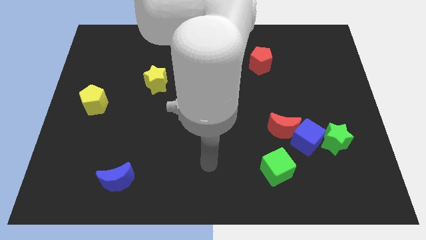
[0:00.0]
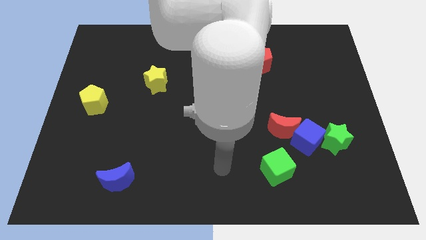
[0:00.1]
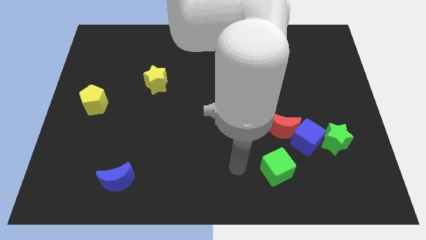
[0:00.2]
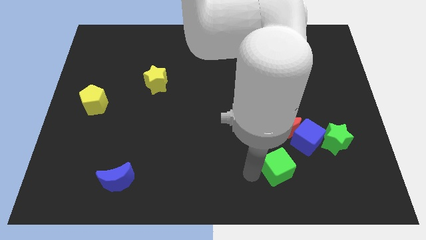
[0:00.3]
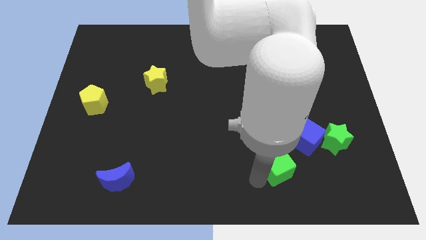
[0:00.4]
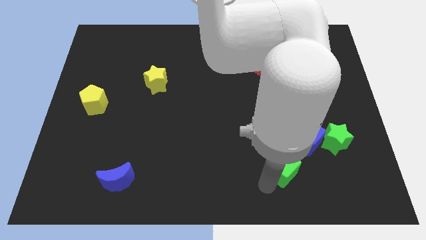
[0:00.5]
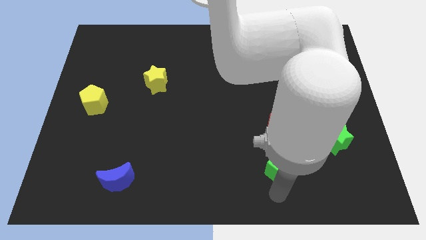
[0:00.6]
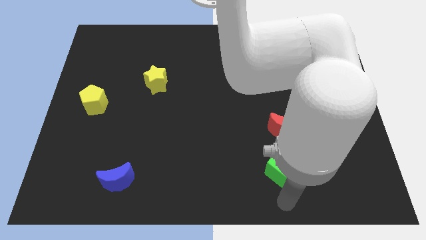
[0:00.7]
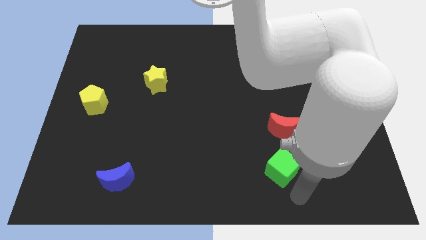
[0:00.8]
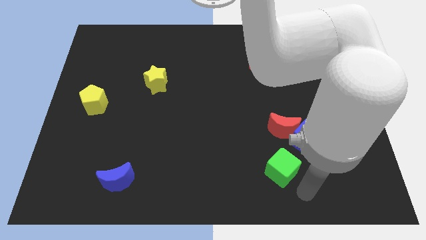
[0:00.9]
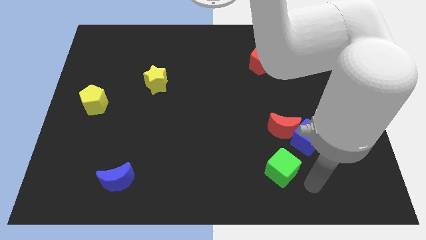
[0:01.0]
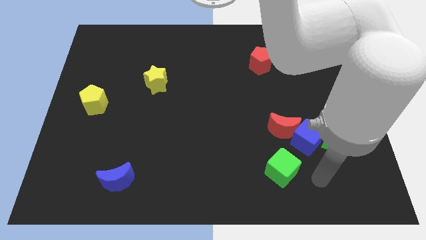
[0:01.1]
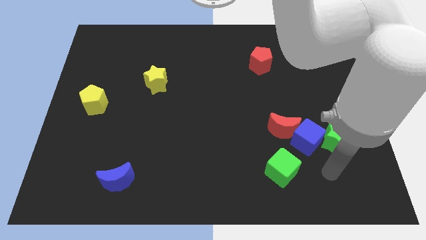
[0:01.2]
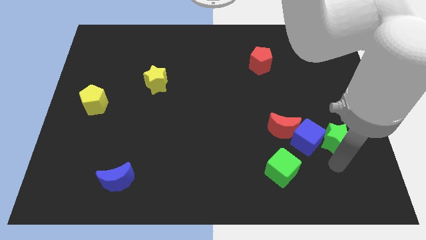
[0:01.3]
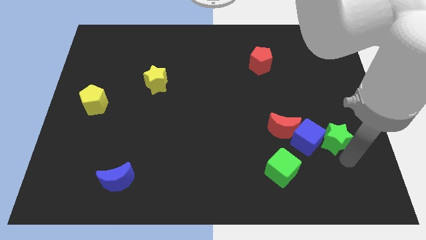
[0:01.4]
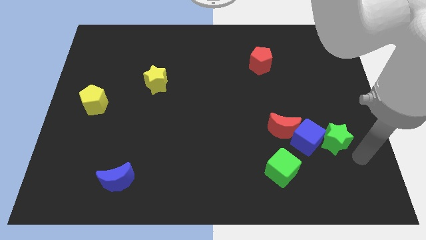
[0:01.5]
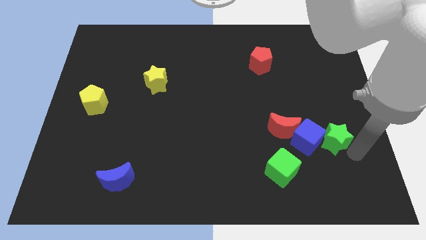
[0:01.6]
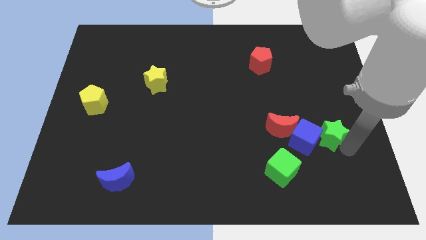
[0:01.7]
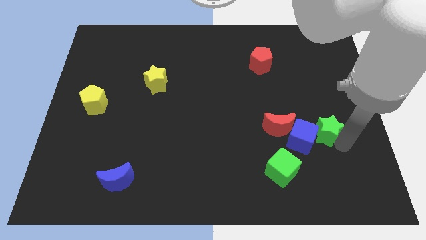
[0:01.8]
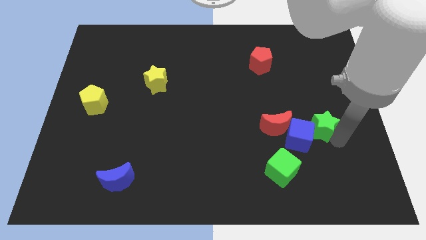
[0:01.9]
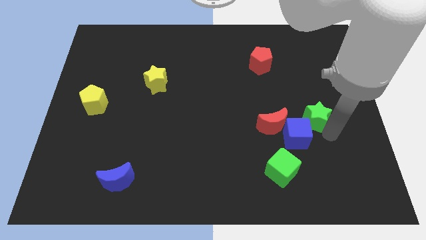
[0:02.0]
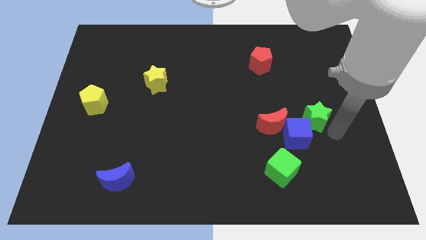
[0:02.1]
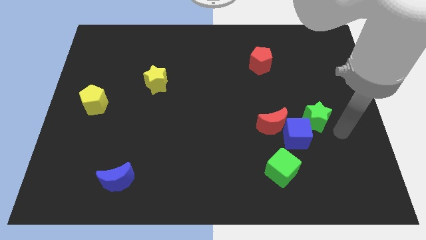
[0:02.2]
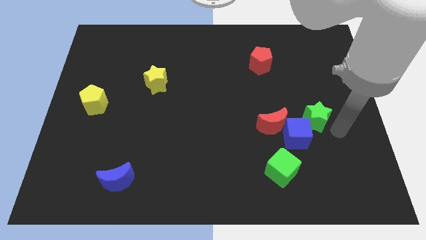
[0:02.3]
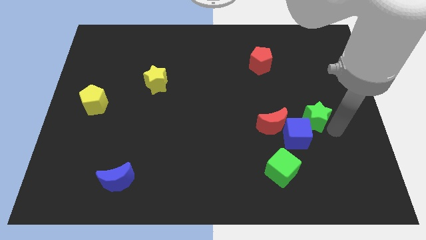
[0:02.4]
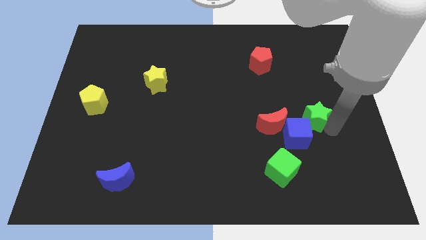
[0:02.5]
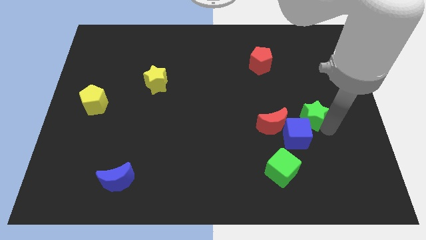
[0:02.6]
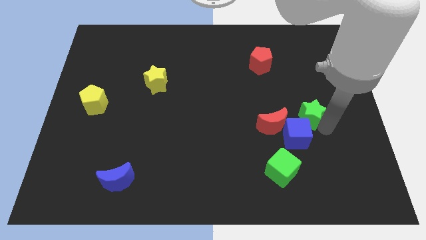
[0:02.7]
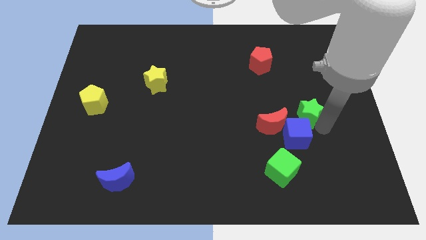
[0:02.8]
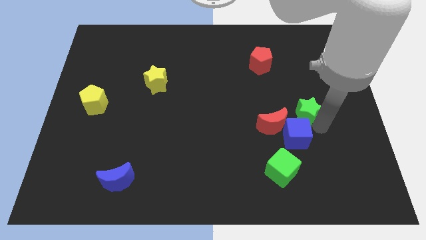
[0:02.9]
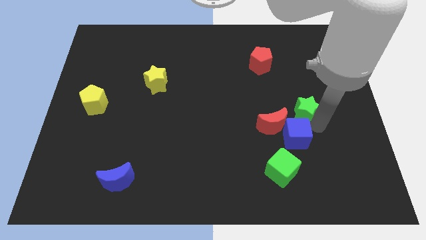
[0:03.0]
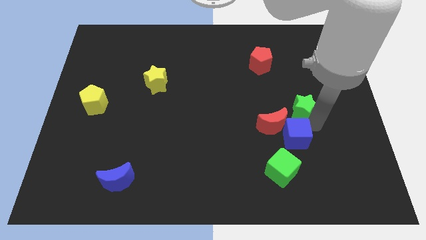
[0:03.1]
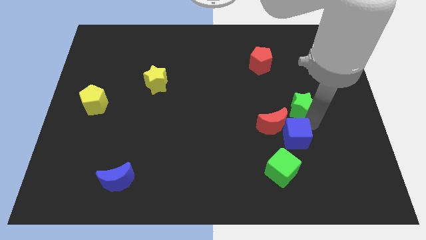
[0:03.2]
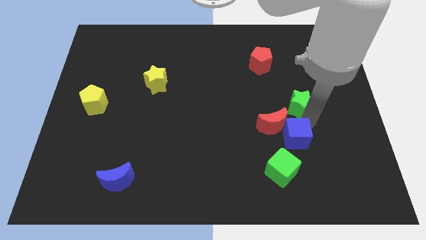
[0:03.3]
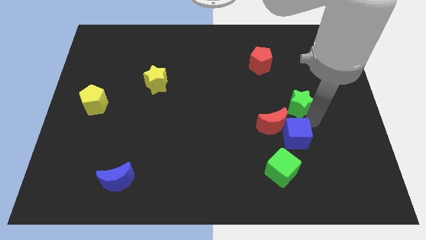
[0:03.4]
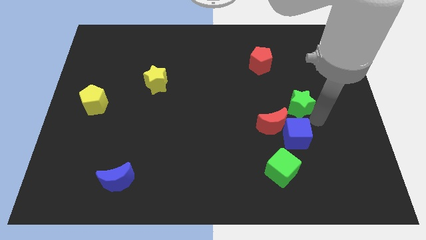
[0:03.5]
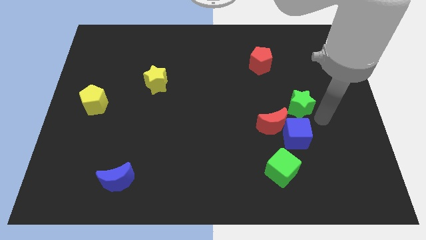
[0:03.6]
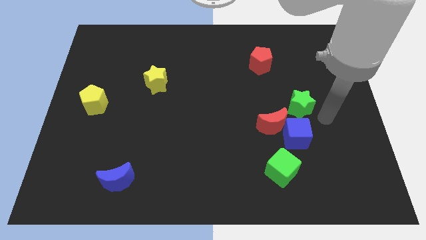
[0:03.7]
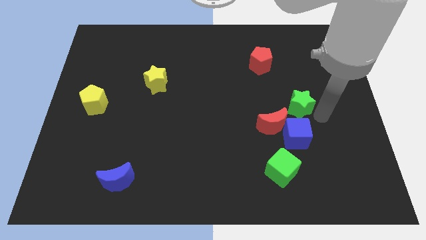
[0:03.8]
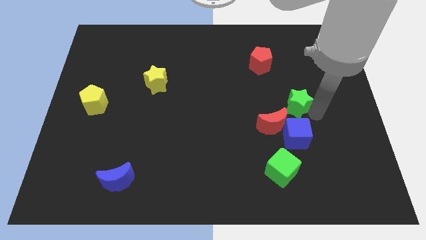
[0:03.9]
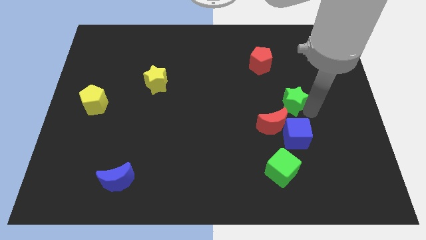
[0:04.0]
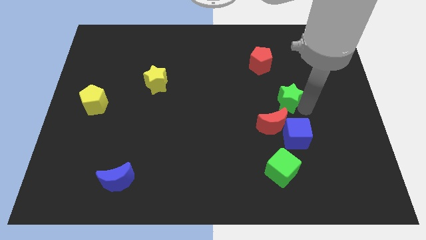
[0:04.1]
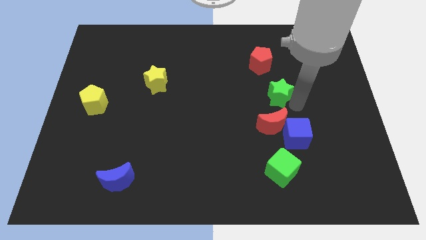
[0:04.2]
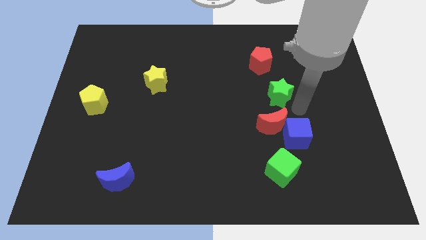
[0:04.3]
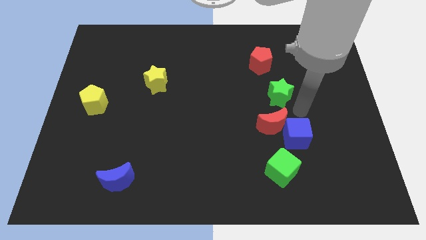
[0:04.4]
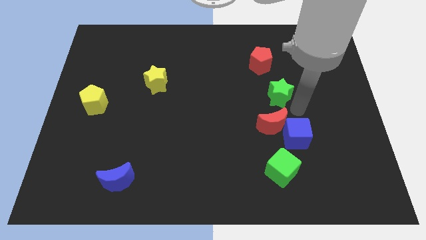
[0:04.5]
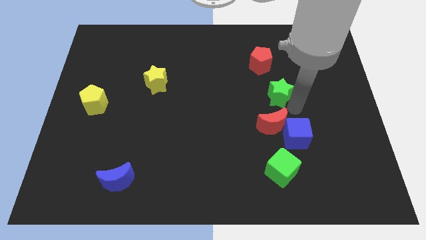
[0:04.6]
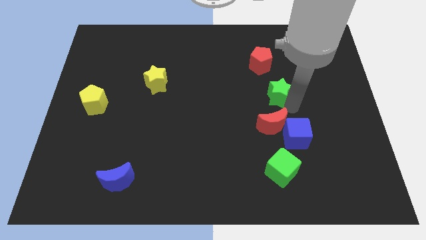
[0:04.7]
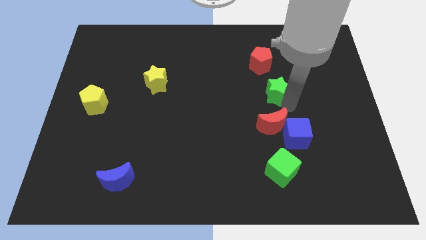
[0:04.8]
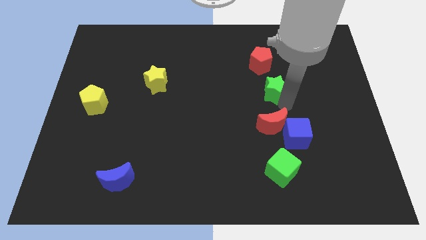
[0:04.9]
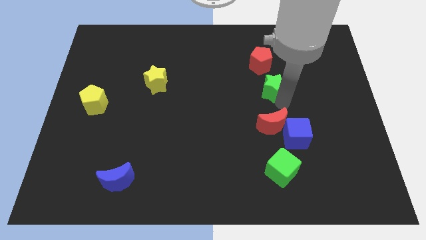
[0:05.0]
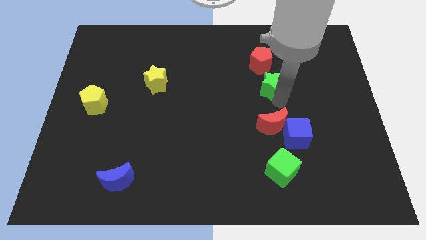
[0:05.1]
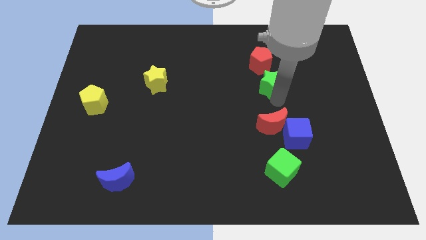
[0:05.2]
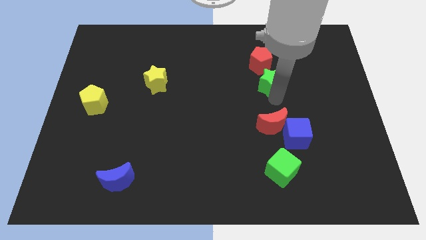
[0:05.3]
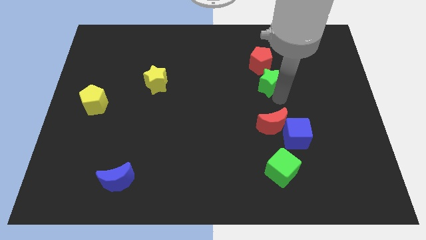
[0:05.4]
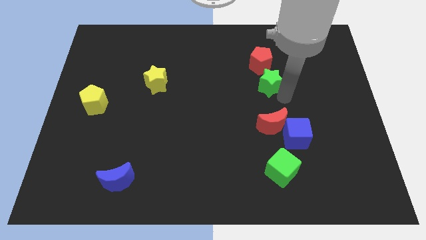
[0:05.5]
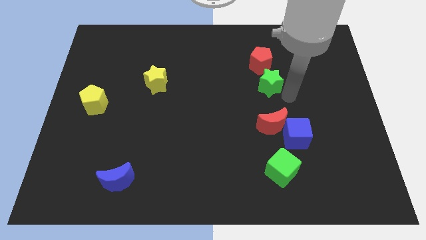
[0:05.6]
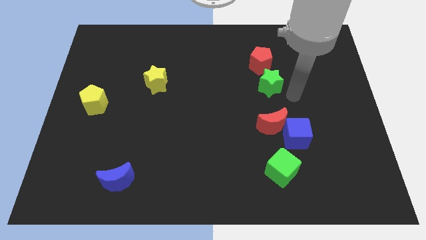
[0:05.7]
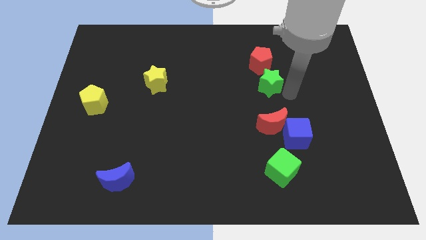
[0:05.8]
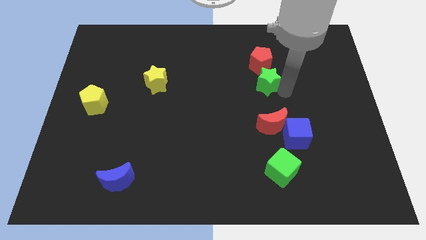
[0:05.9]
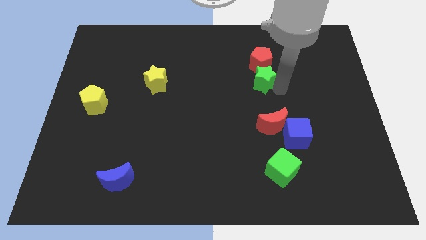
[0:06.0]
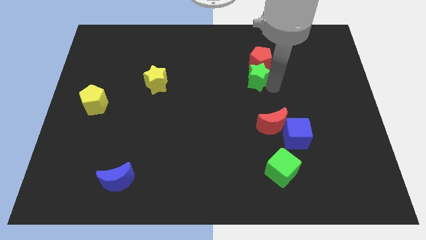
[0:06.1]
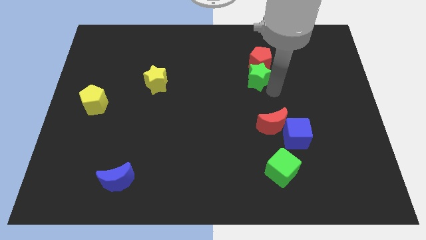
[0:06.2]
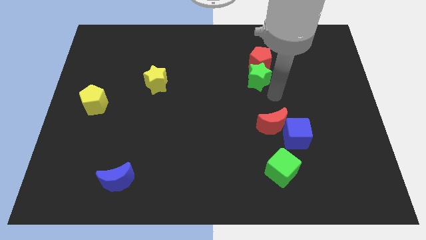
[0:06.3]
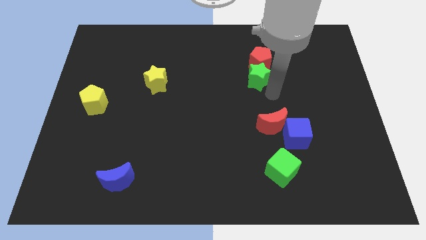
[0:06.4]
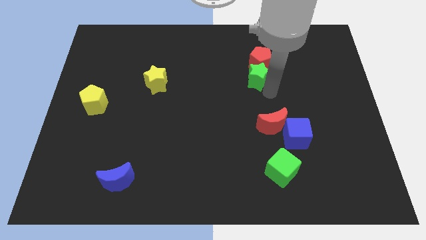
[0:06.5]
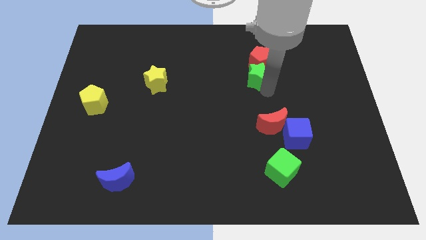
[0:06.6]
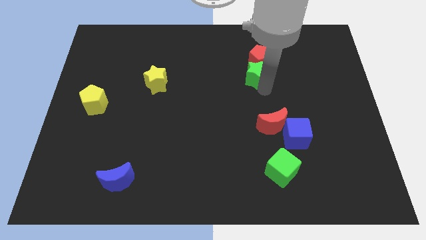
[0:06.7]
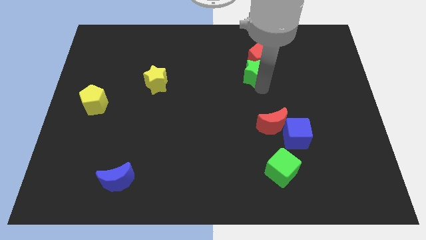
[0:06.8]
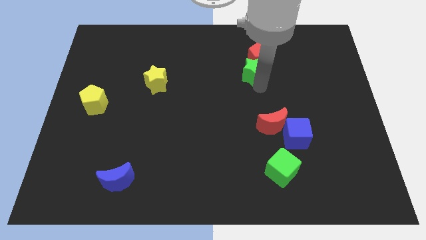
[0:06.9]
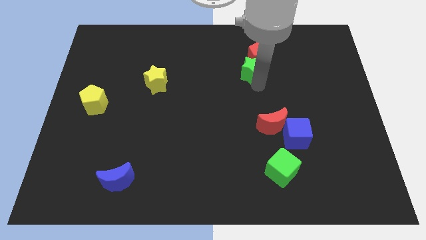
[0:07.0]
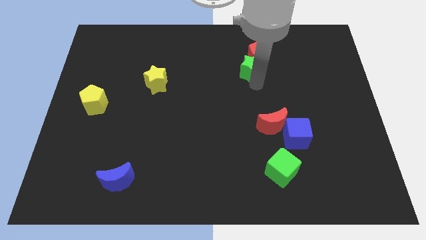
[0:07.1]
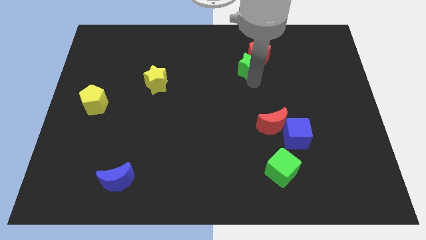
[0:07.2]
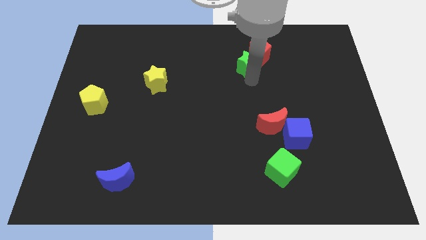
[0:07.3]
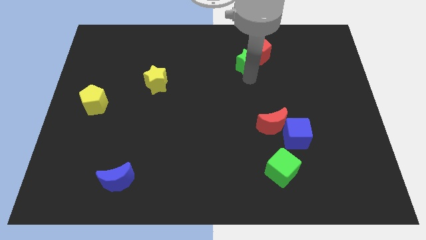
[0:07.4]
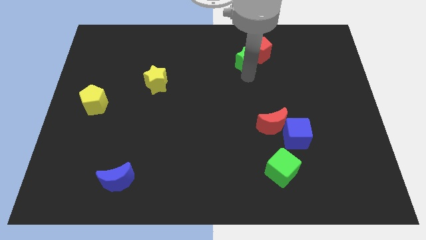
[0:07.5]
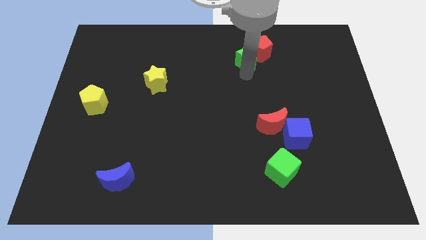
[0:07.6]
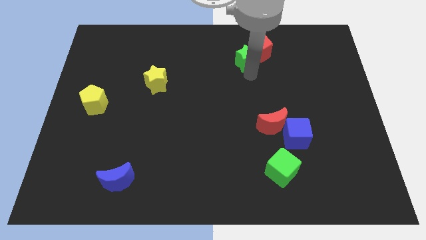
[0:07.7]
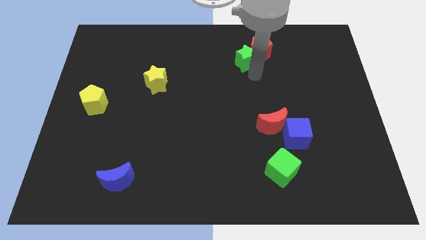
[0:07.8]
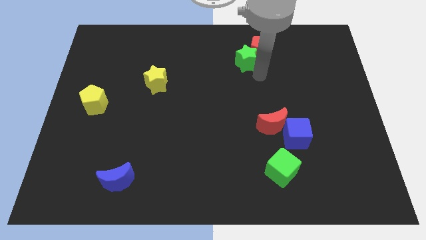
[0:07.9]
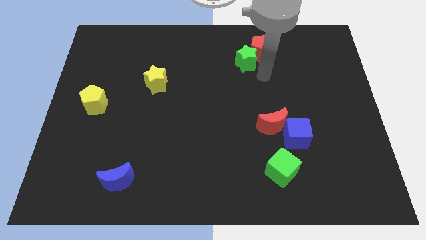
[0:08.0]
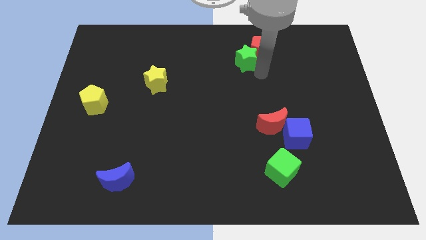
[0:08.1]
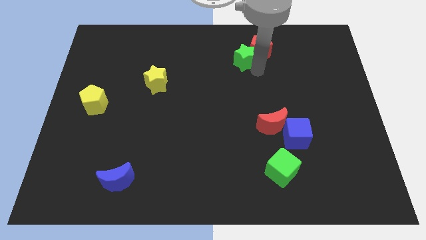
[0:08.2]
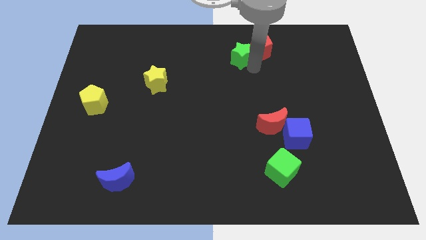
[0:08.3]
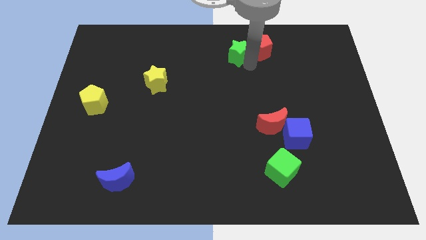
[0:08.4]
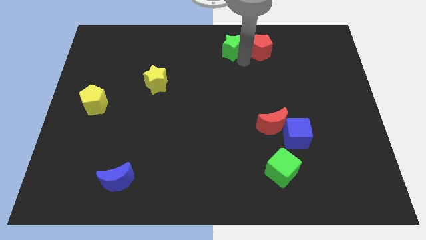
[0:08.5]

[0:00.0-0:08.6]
push the green star to the towards your base
